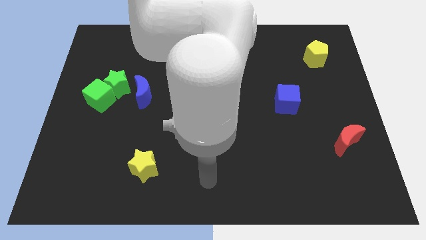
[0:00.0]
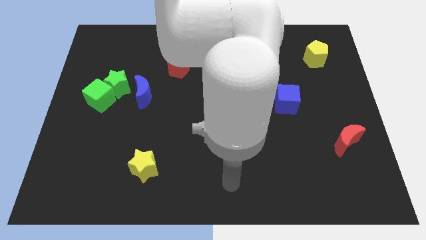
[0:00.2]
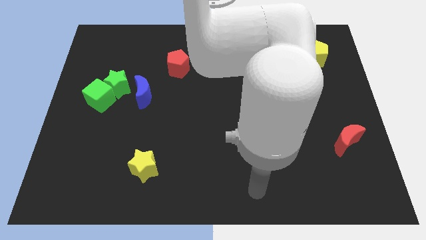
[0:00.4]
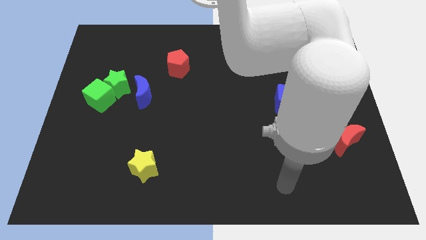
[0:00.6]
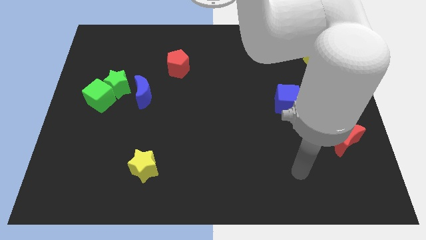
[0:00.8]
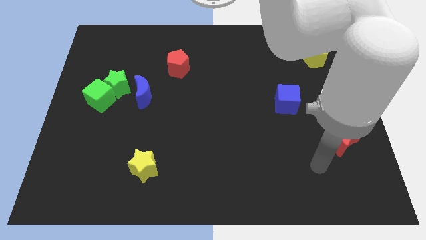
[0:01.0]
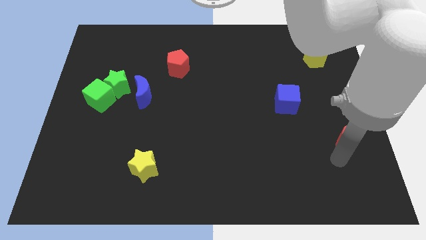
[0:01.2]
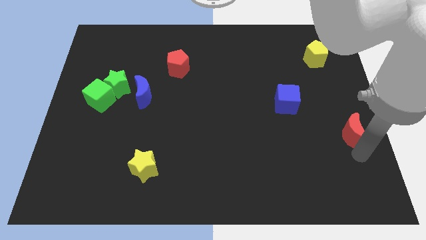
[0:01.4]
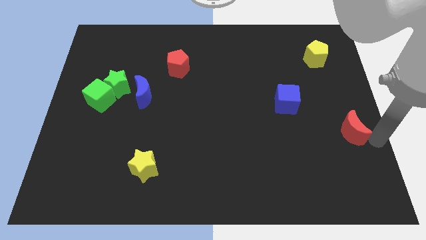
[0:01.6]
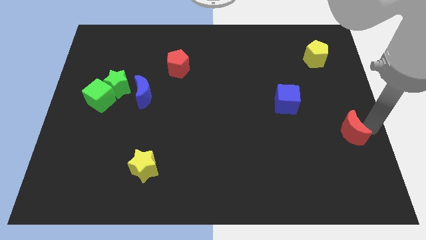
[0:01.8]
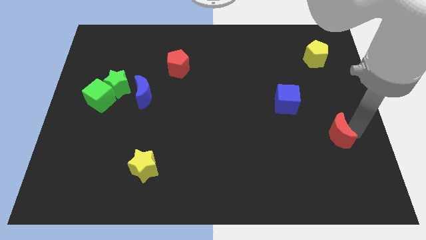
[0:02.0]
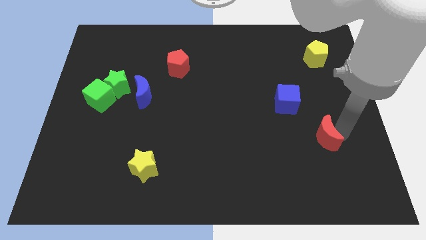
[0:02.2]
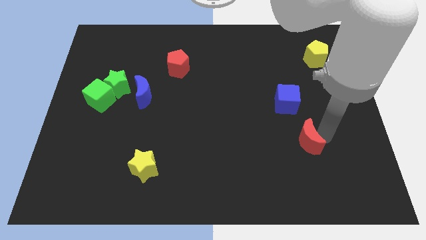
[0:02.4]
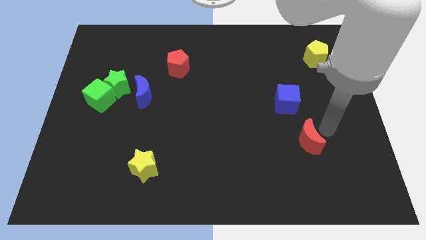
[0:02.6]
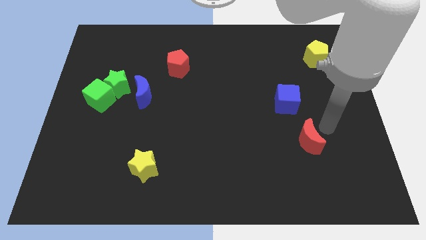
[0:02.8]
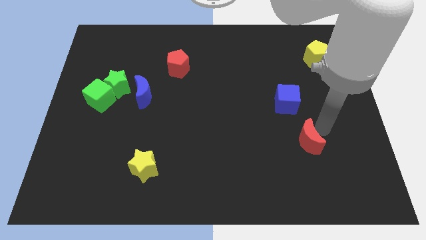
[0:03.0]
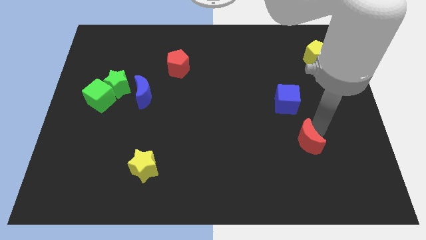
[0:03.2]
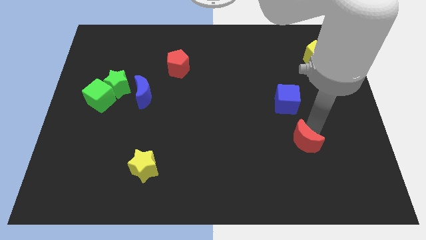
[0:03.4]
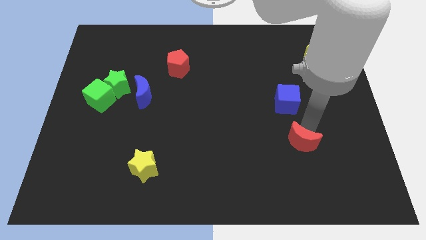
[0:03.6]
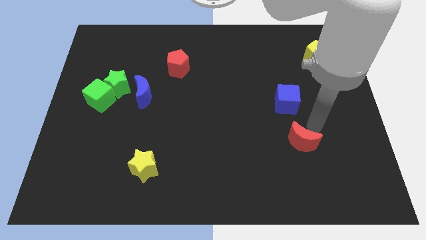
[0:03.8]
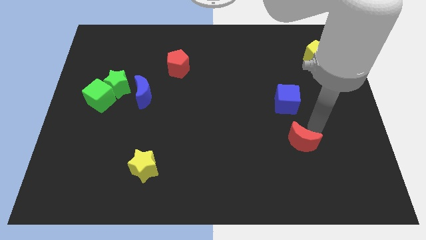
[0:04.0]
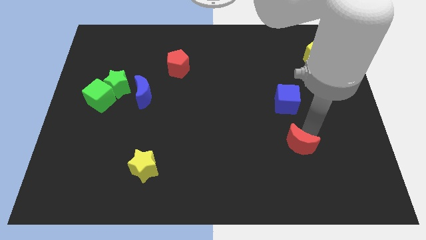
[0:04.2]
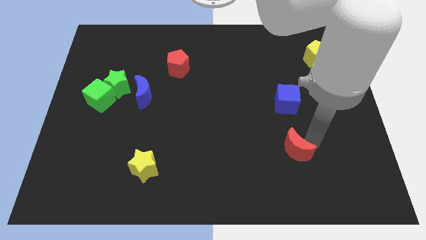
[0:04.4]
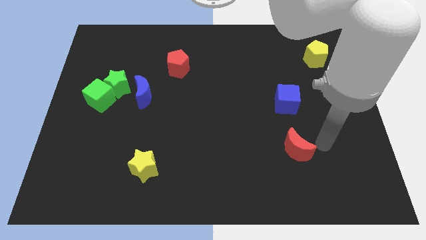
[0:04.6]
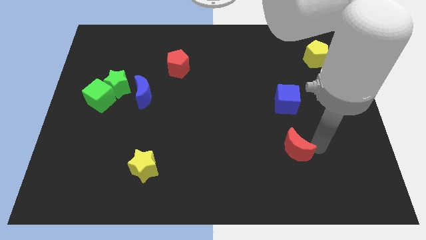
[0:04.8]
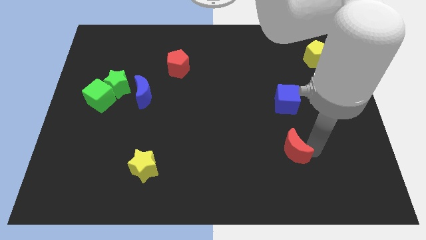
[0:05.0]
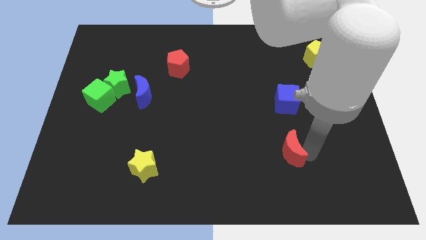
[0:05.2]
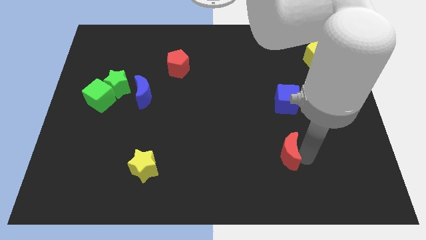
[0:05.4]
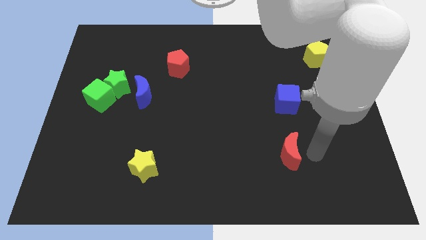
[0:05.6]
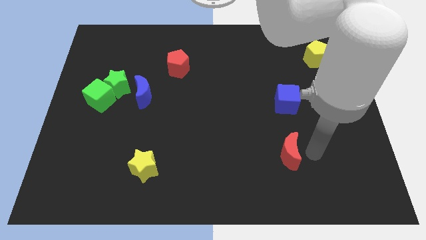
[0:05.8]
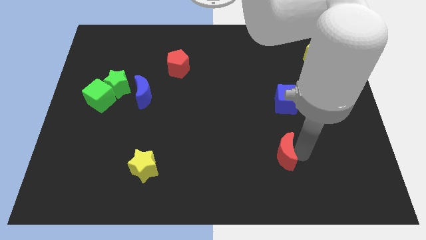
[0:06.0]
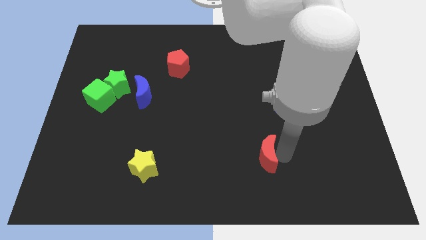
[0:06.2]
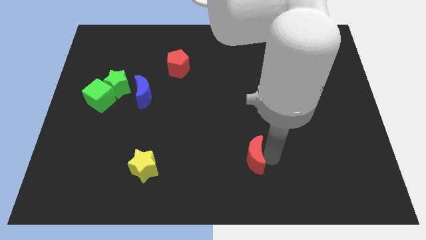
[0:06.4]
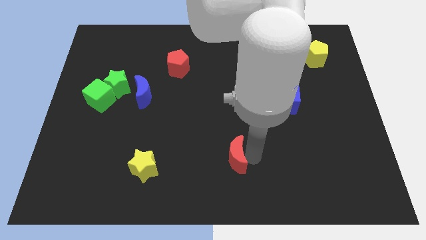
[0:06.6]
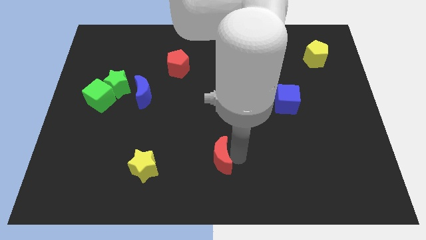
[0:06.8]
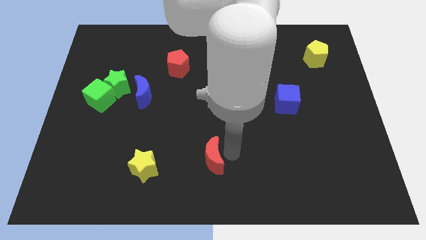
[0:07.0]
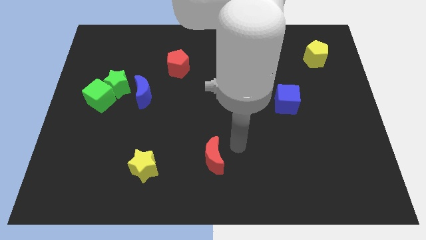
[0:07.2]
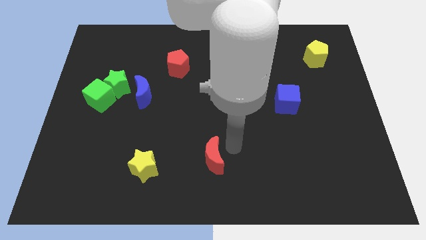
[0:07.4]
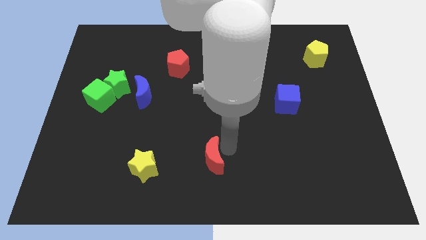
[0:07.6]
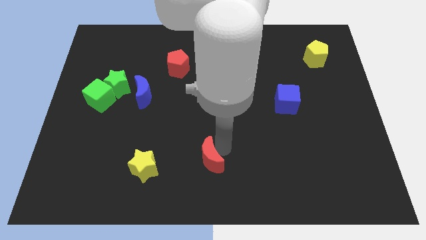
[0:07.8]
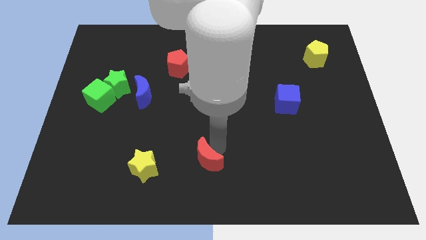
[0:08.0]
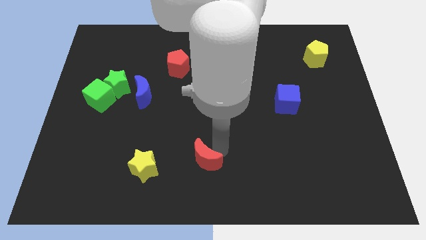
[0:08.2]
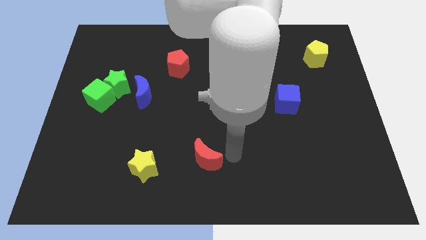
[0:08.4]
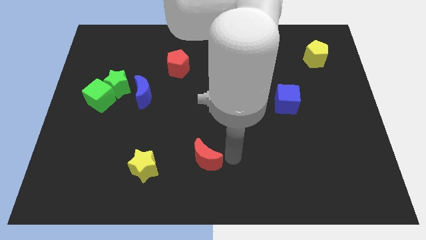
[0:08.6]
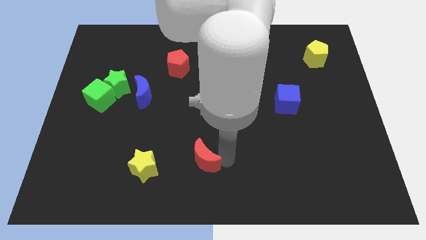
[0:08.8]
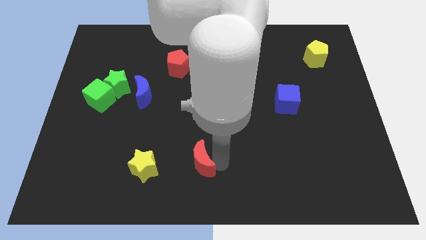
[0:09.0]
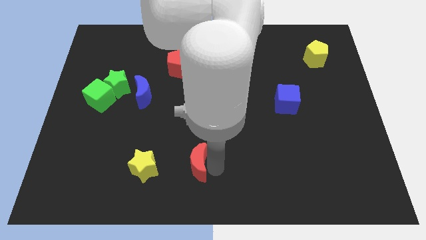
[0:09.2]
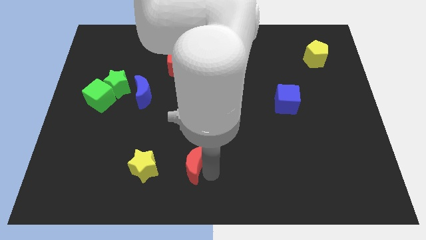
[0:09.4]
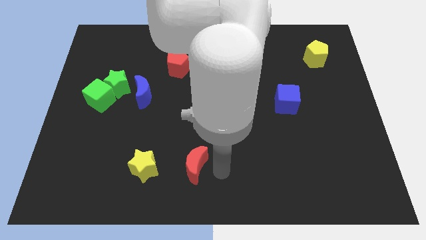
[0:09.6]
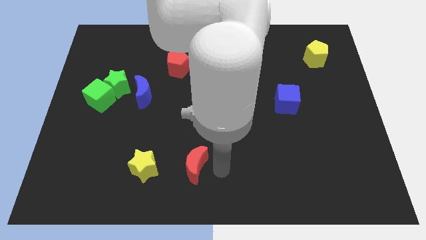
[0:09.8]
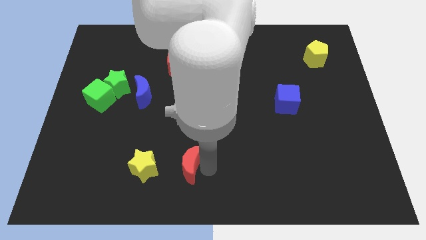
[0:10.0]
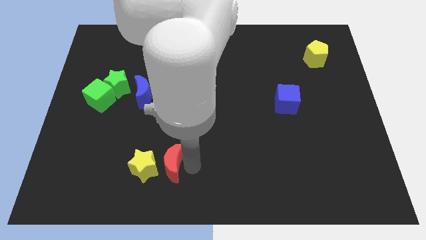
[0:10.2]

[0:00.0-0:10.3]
push the red moon close to the yellow star

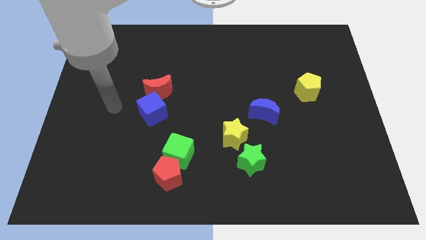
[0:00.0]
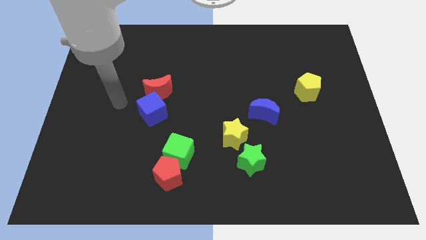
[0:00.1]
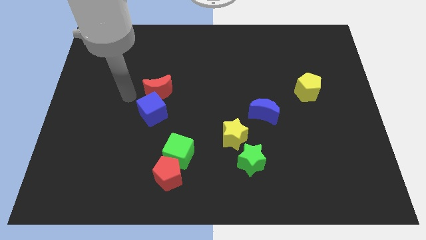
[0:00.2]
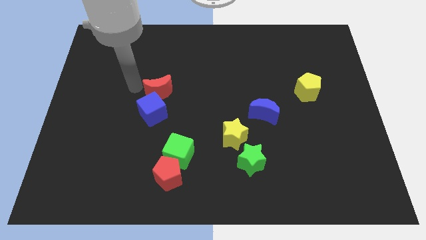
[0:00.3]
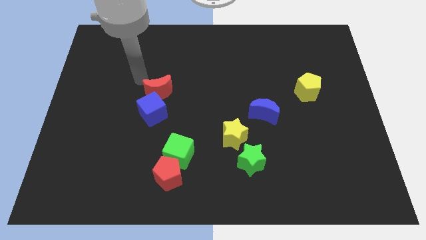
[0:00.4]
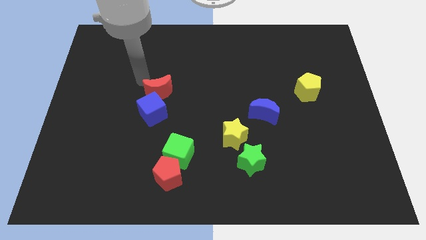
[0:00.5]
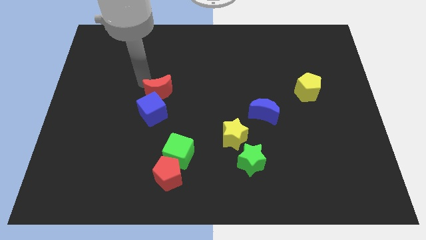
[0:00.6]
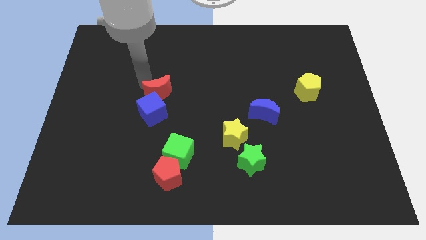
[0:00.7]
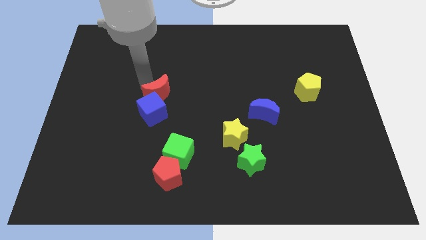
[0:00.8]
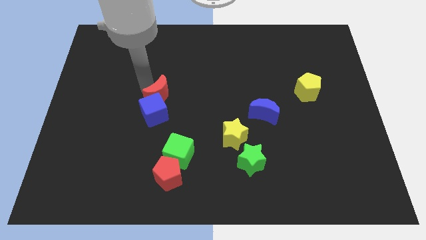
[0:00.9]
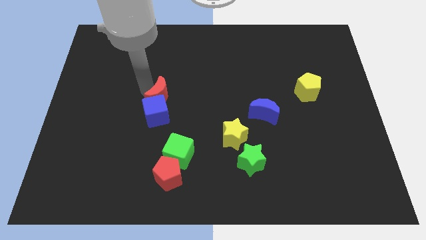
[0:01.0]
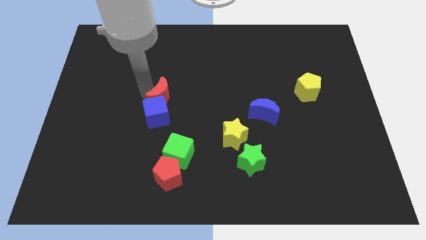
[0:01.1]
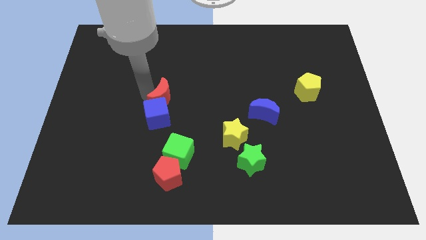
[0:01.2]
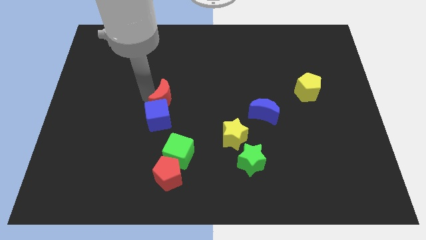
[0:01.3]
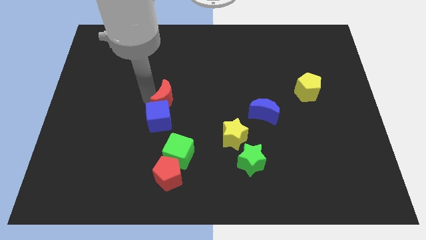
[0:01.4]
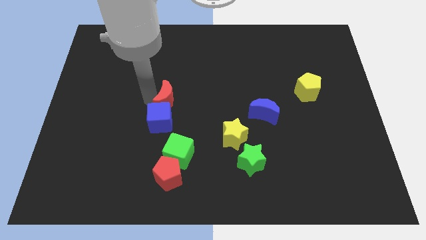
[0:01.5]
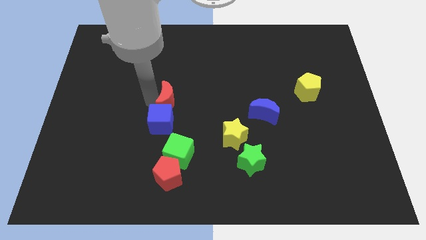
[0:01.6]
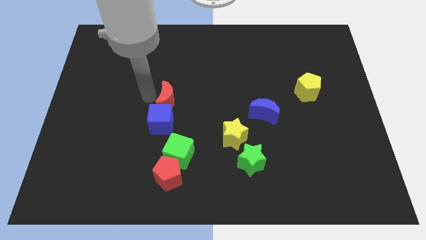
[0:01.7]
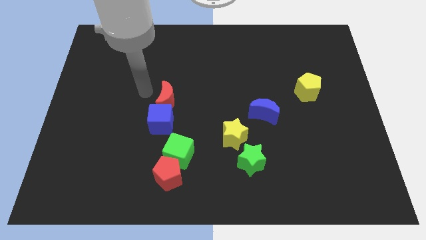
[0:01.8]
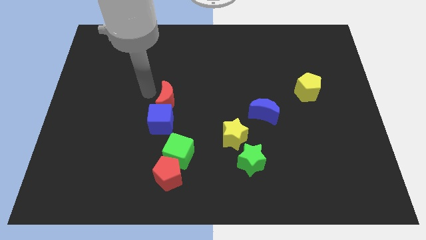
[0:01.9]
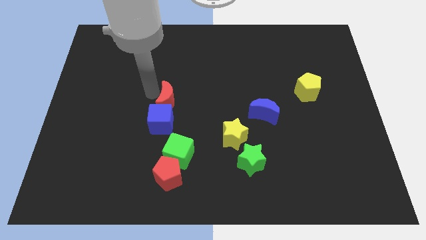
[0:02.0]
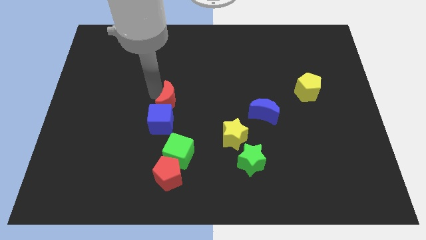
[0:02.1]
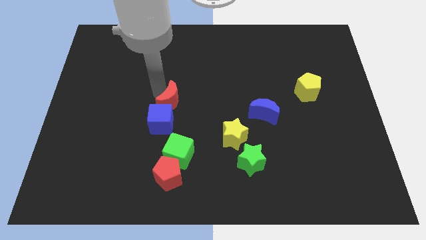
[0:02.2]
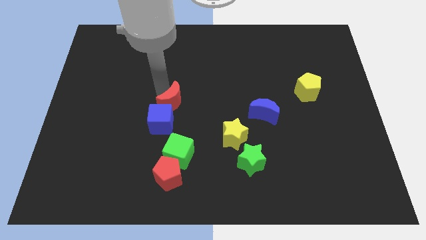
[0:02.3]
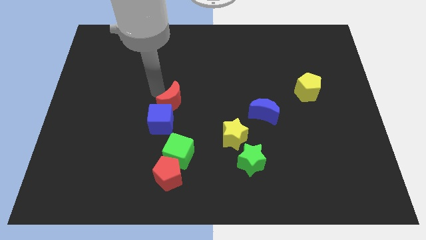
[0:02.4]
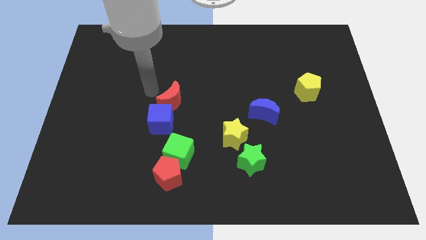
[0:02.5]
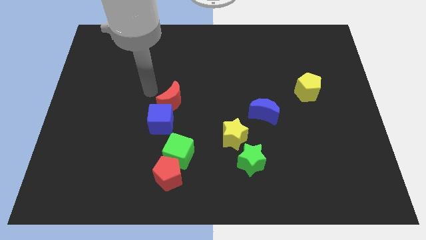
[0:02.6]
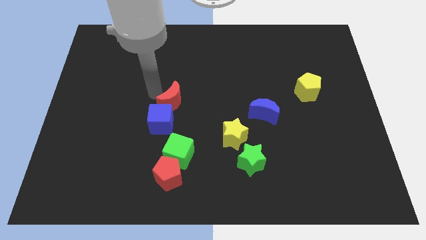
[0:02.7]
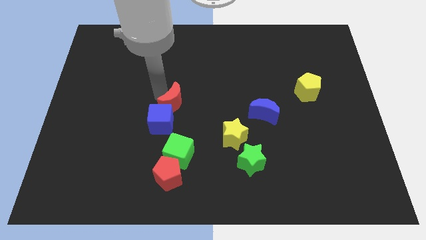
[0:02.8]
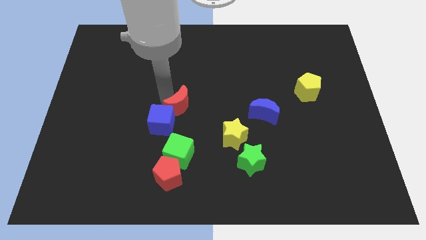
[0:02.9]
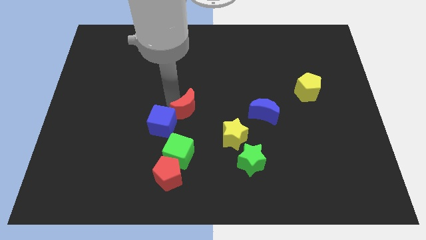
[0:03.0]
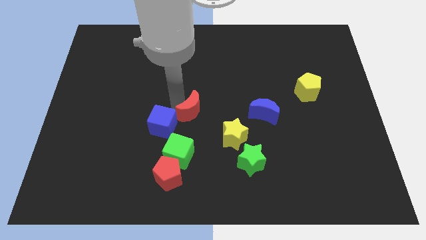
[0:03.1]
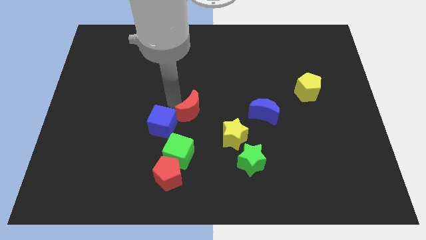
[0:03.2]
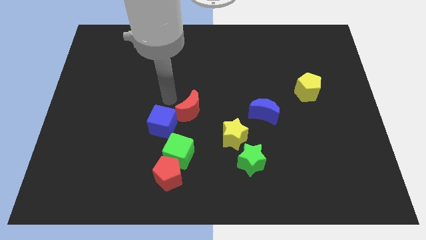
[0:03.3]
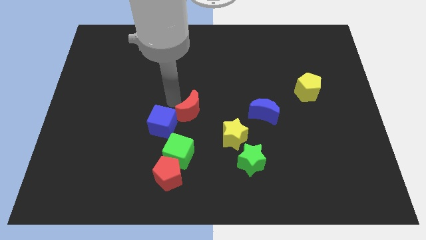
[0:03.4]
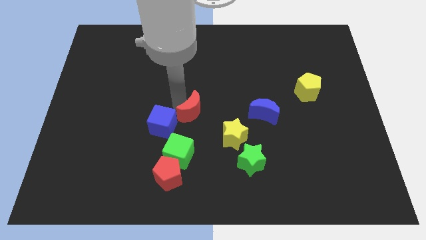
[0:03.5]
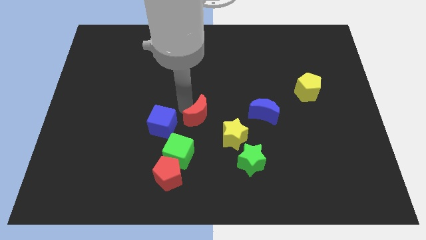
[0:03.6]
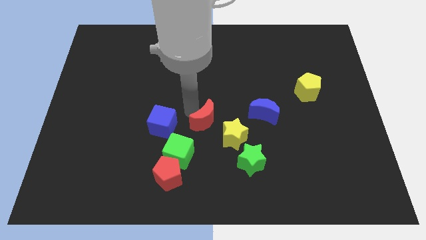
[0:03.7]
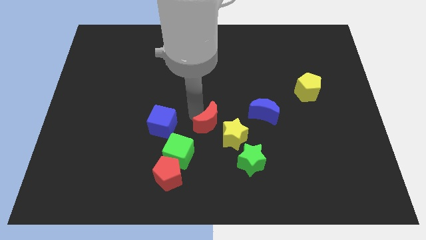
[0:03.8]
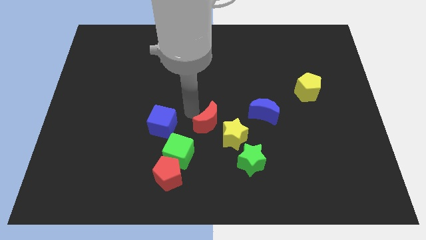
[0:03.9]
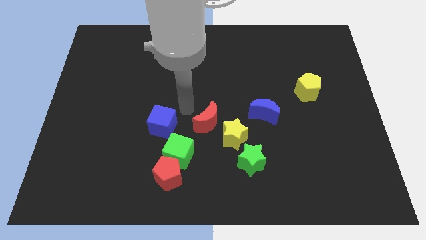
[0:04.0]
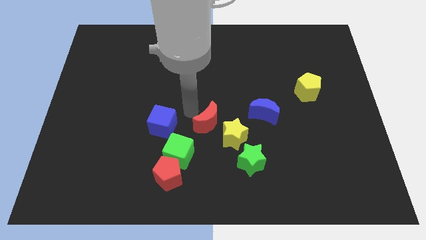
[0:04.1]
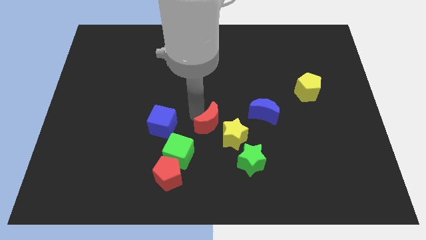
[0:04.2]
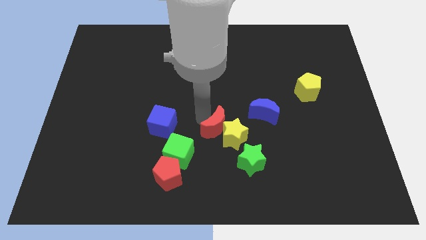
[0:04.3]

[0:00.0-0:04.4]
put the red moon next to the yellow star
